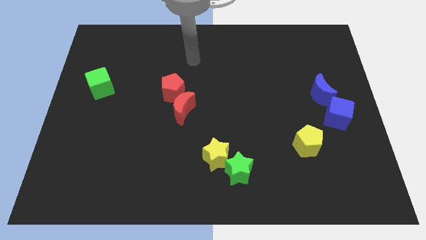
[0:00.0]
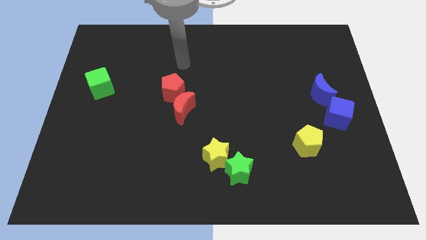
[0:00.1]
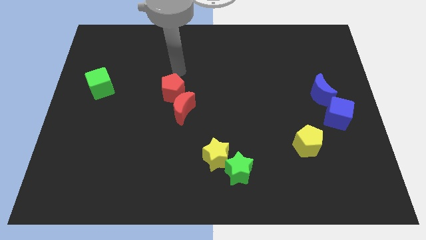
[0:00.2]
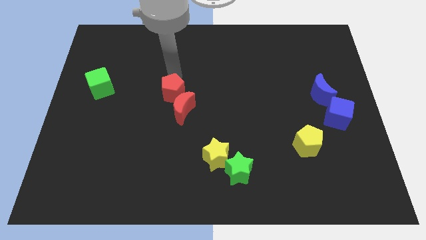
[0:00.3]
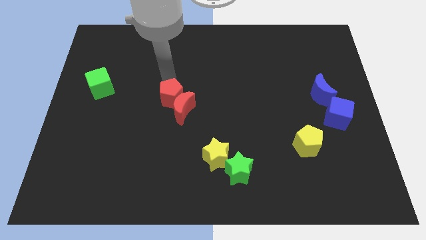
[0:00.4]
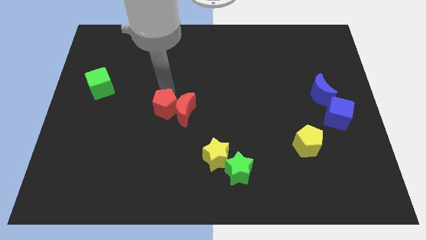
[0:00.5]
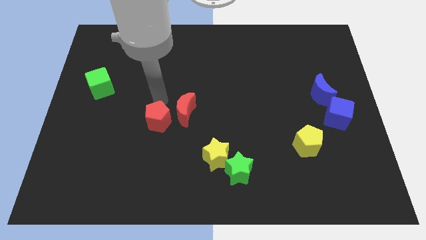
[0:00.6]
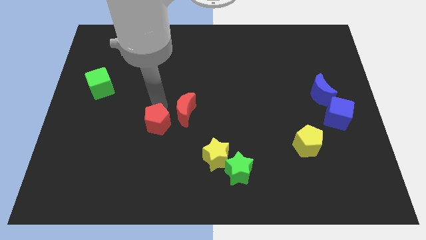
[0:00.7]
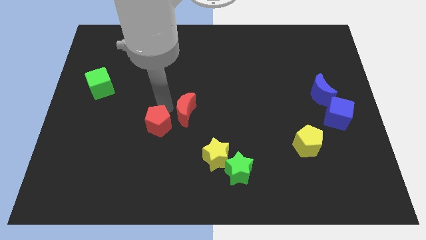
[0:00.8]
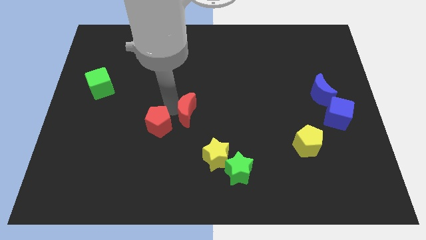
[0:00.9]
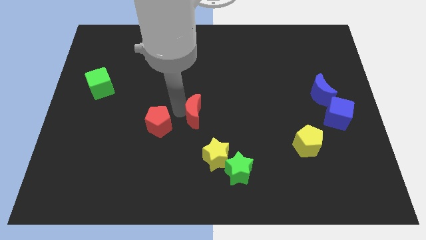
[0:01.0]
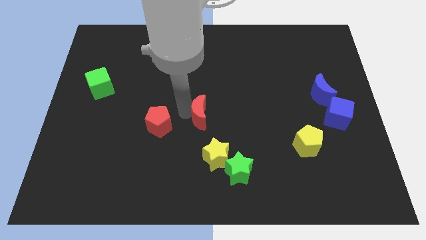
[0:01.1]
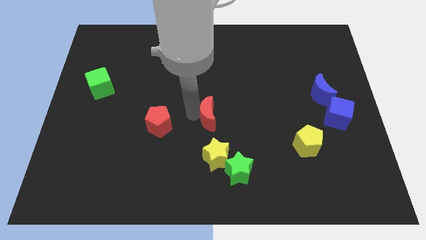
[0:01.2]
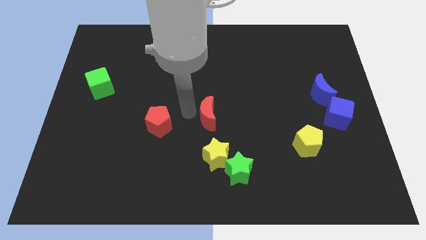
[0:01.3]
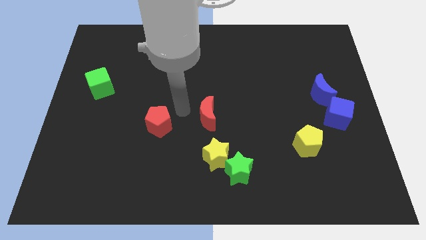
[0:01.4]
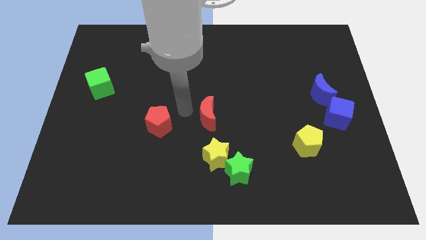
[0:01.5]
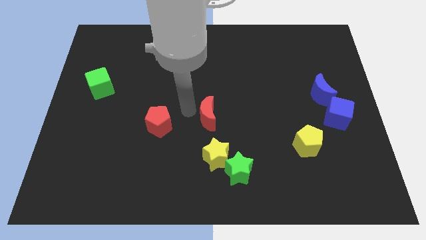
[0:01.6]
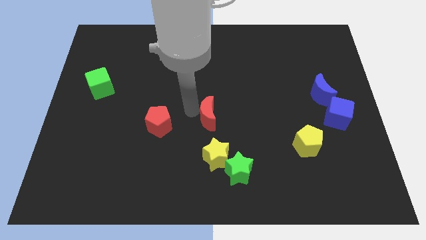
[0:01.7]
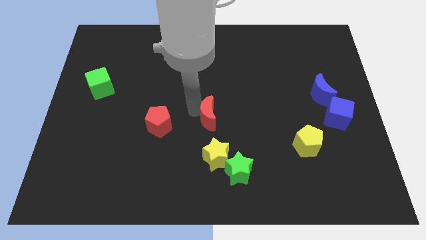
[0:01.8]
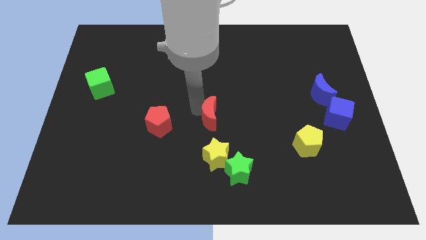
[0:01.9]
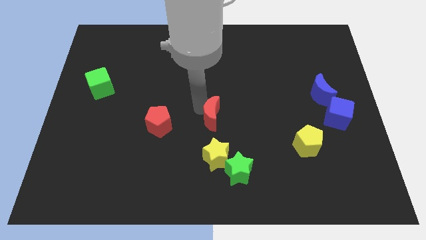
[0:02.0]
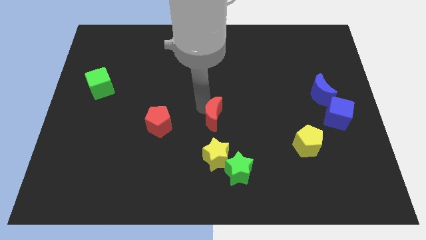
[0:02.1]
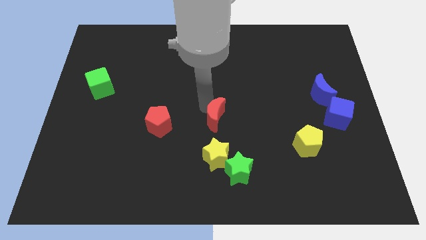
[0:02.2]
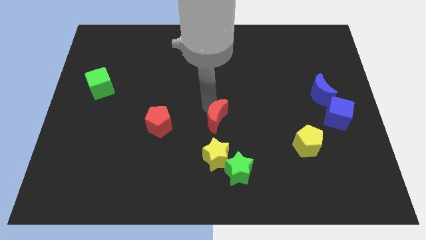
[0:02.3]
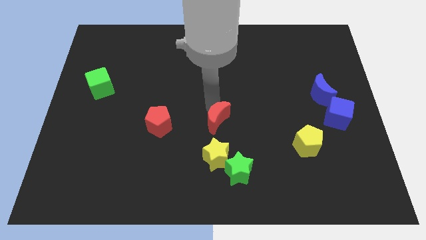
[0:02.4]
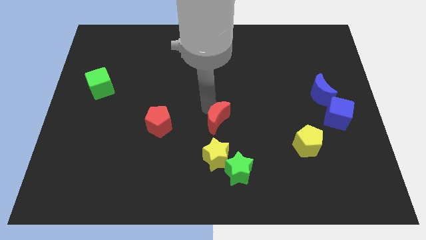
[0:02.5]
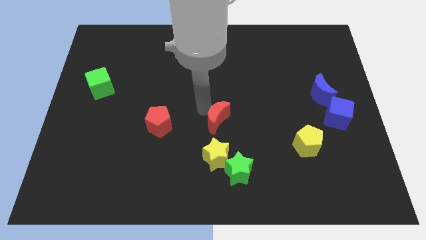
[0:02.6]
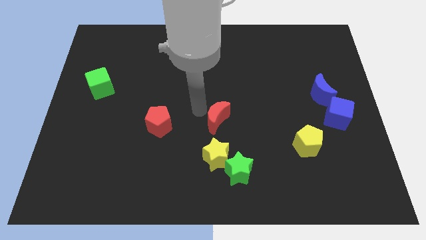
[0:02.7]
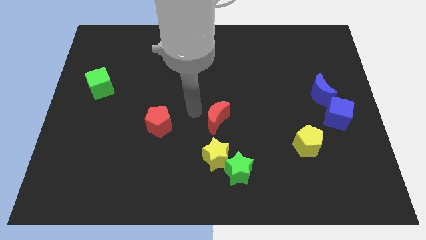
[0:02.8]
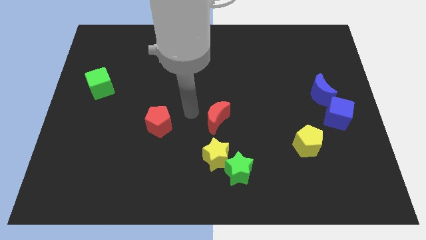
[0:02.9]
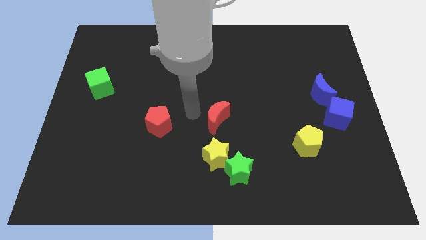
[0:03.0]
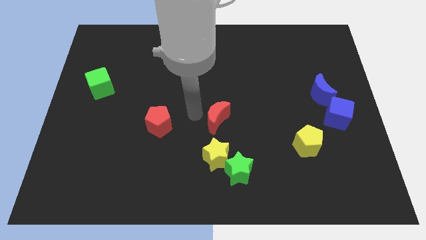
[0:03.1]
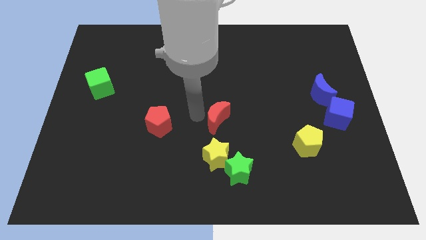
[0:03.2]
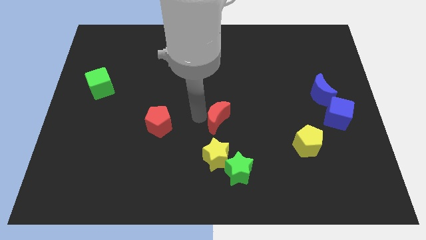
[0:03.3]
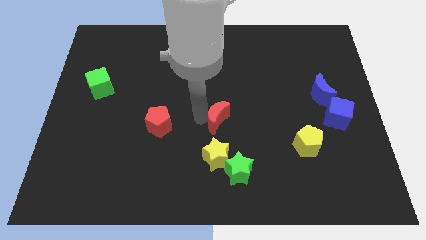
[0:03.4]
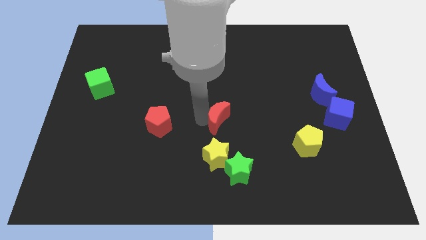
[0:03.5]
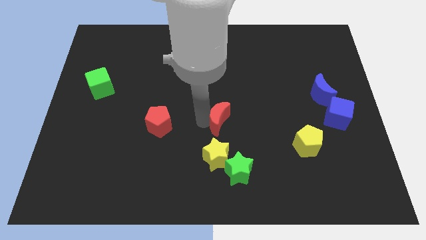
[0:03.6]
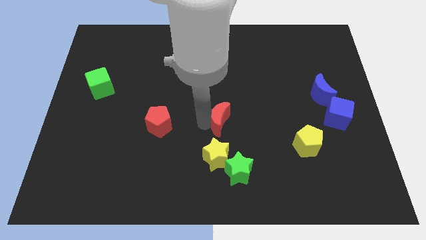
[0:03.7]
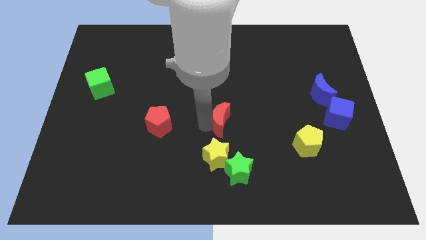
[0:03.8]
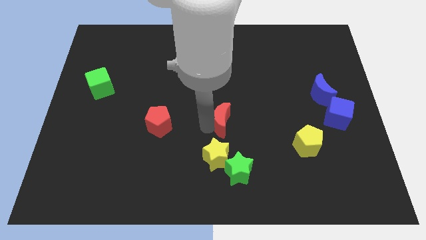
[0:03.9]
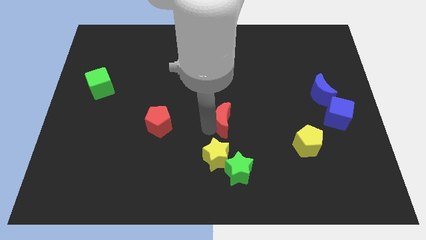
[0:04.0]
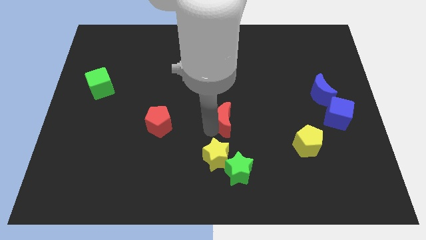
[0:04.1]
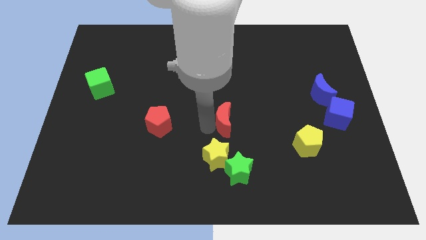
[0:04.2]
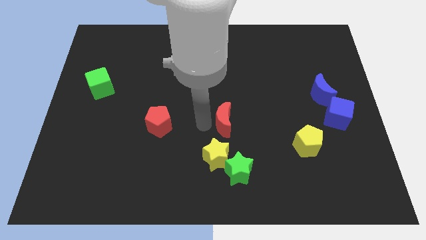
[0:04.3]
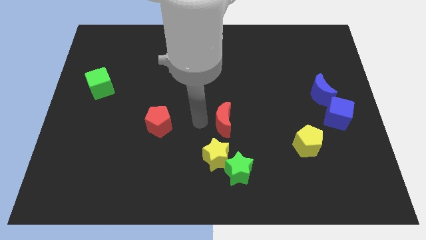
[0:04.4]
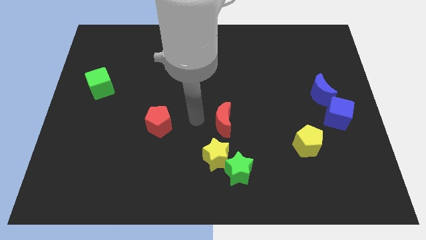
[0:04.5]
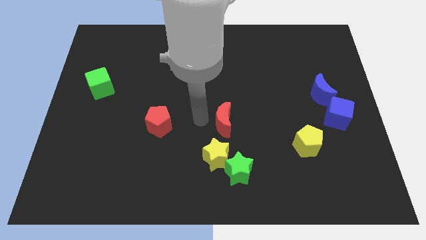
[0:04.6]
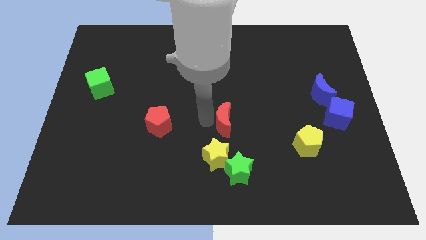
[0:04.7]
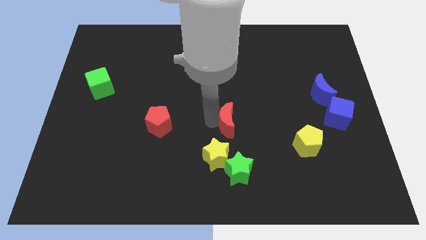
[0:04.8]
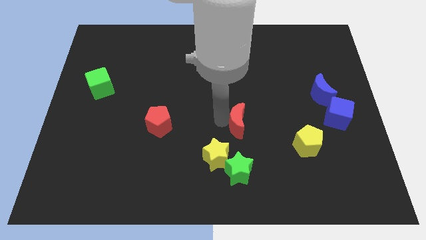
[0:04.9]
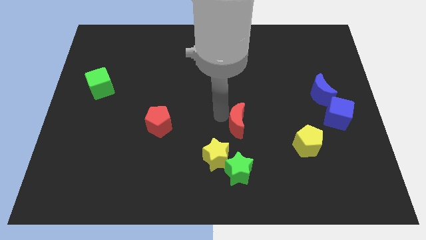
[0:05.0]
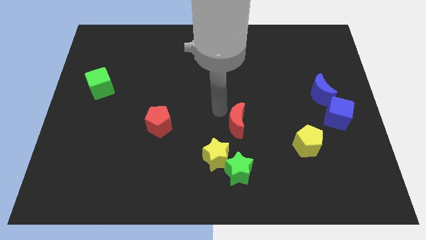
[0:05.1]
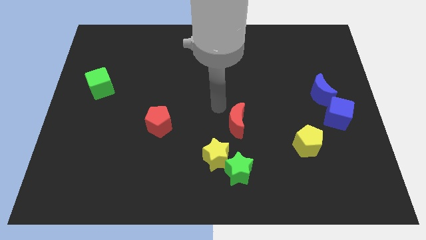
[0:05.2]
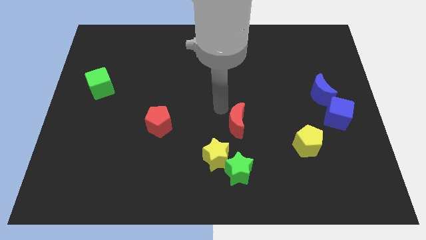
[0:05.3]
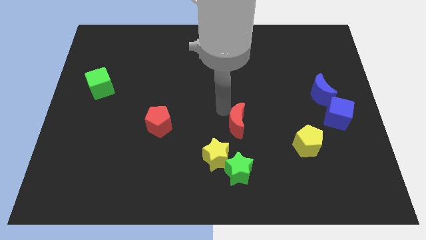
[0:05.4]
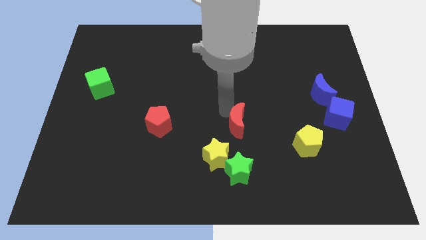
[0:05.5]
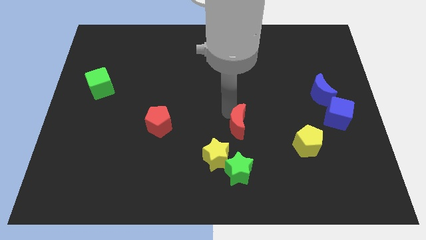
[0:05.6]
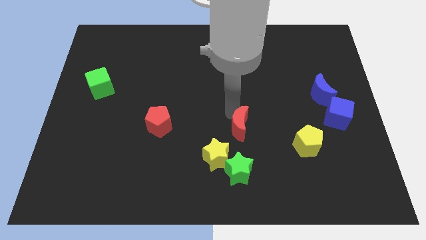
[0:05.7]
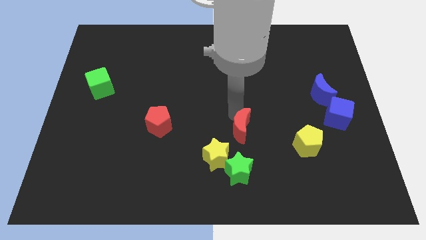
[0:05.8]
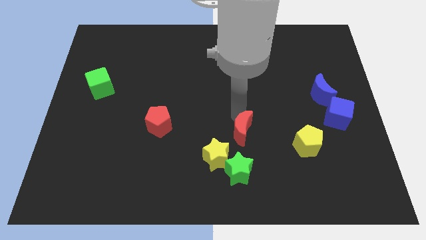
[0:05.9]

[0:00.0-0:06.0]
put the red moon just left of the yellow pentagon
